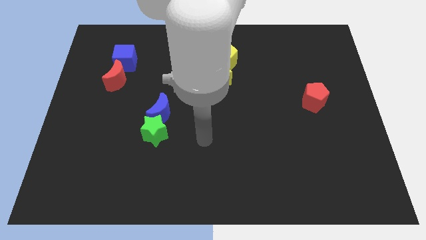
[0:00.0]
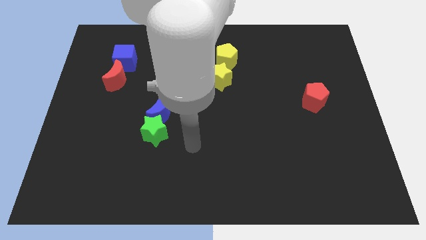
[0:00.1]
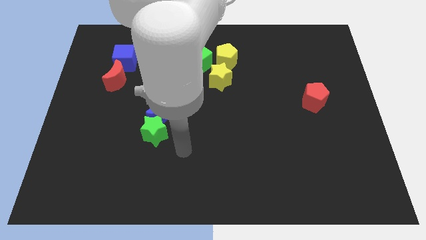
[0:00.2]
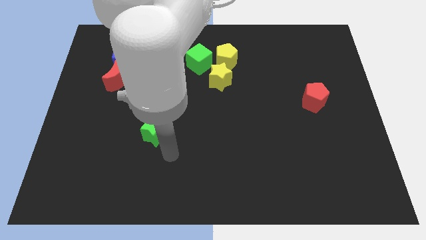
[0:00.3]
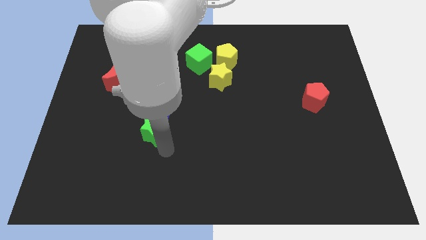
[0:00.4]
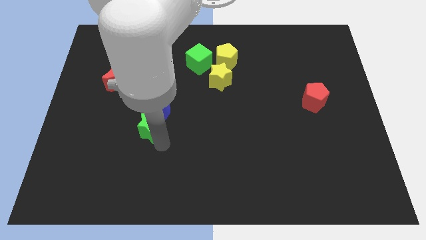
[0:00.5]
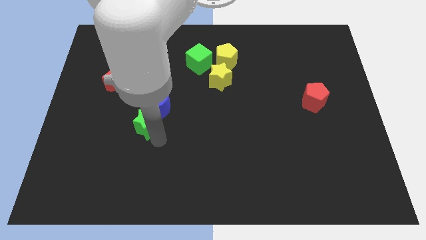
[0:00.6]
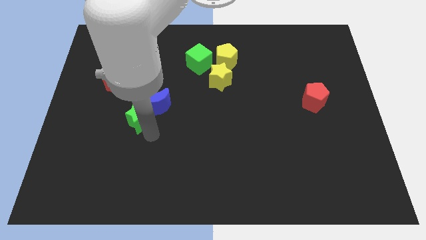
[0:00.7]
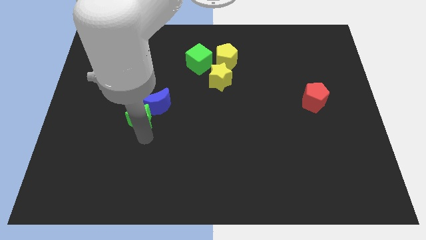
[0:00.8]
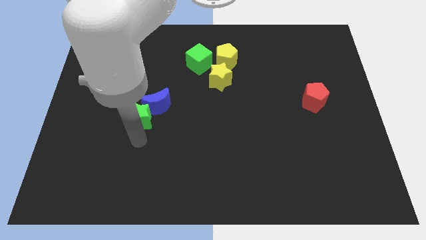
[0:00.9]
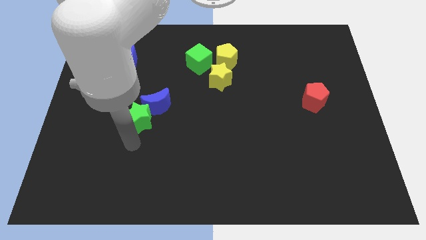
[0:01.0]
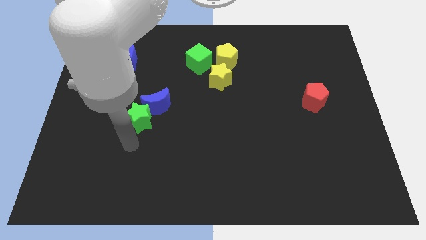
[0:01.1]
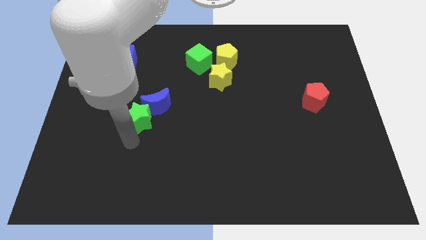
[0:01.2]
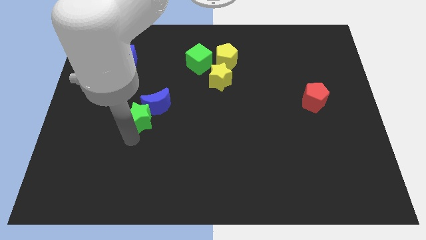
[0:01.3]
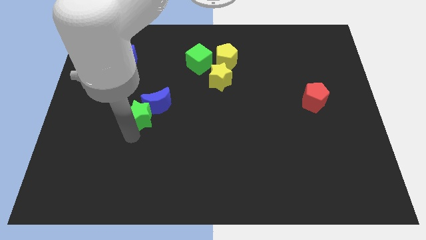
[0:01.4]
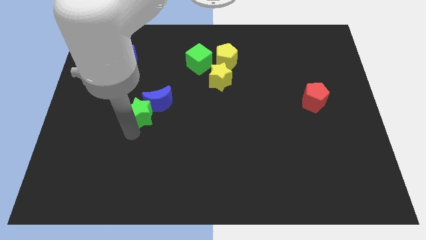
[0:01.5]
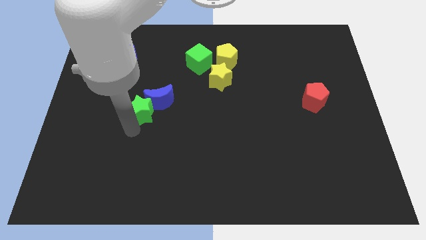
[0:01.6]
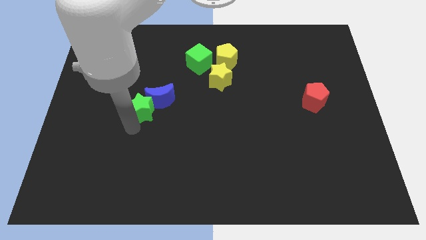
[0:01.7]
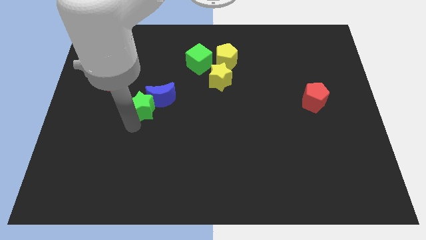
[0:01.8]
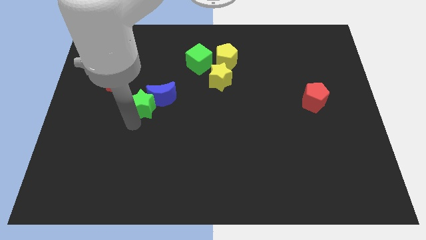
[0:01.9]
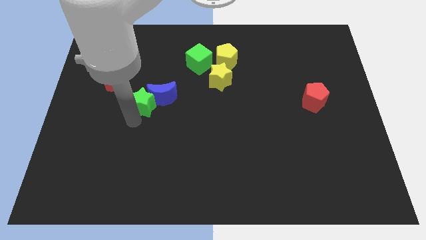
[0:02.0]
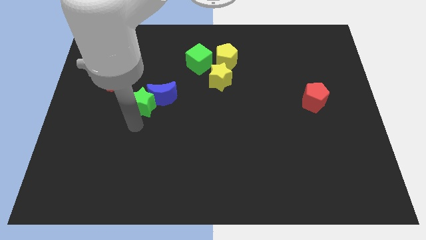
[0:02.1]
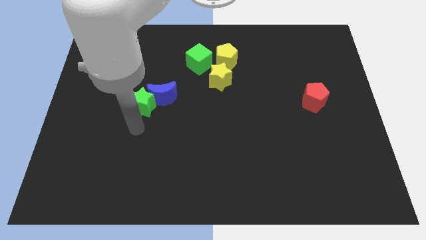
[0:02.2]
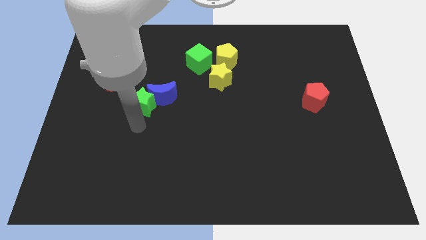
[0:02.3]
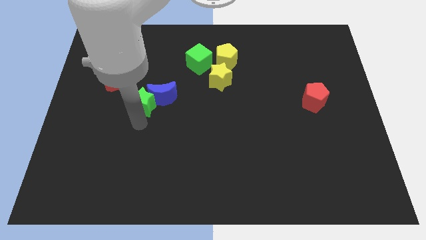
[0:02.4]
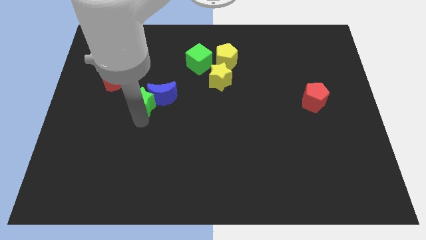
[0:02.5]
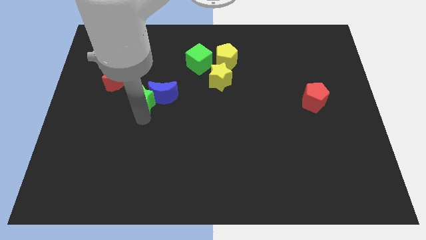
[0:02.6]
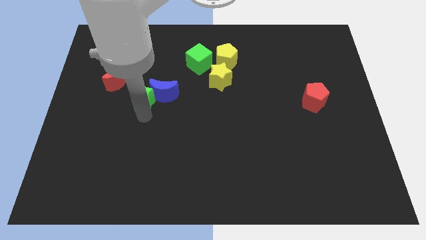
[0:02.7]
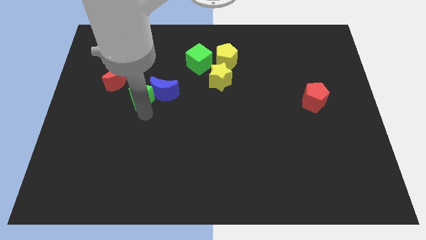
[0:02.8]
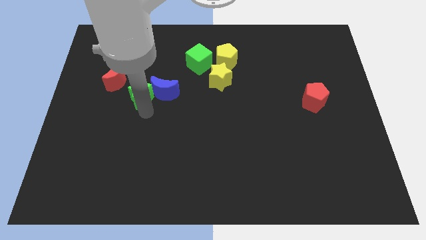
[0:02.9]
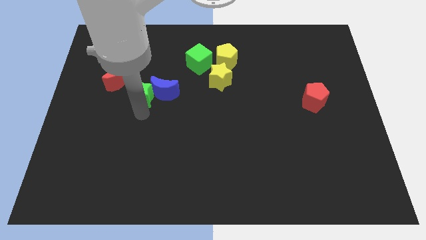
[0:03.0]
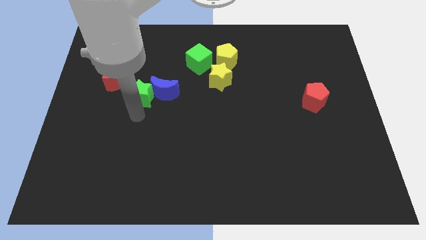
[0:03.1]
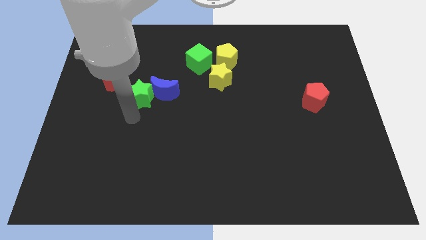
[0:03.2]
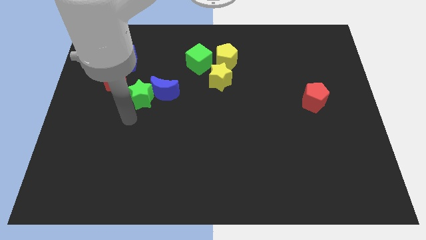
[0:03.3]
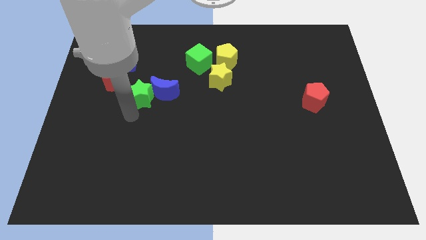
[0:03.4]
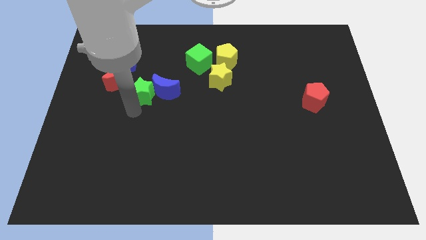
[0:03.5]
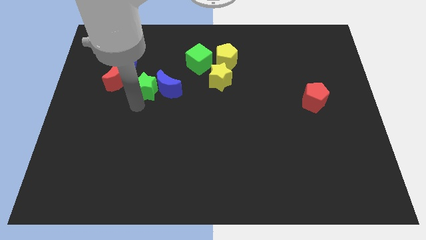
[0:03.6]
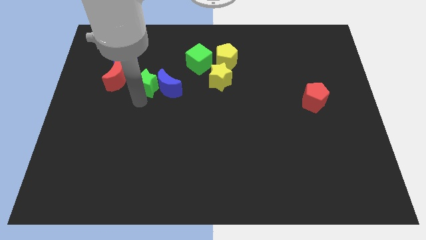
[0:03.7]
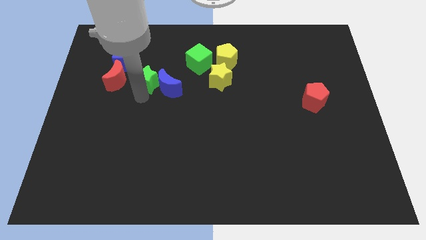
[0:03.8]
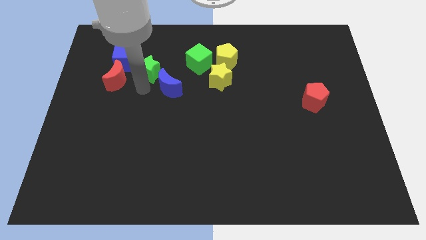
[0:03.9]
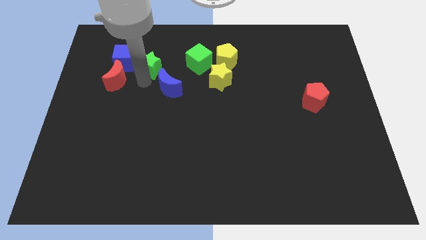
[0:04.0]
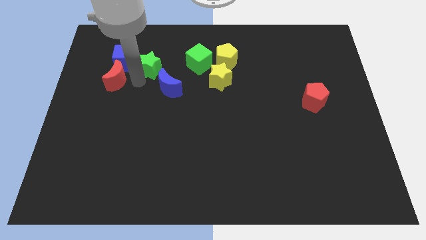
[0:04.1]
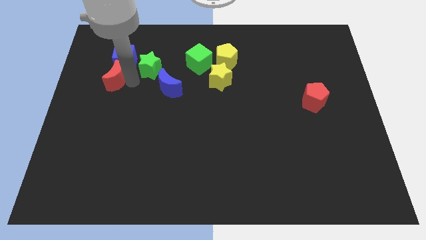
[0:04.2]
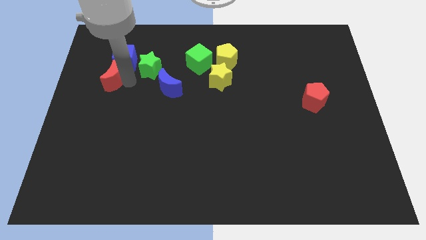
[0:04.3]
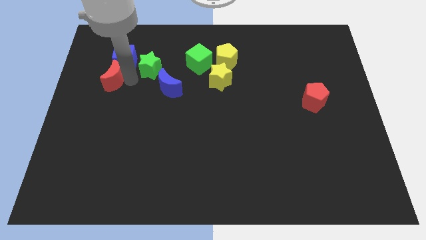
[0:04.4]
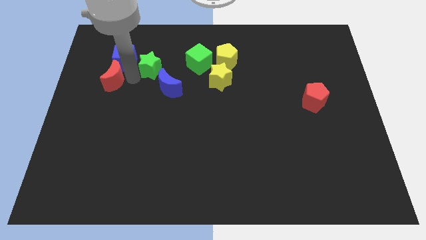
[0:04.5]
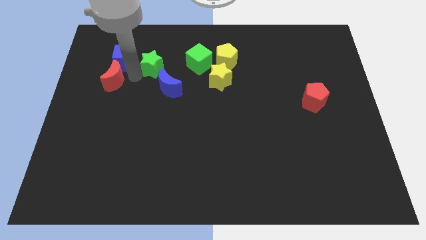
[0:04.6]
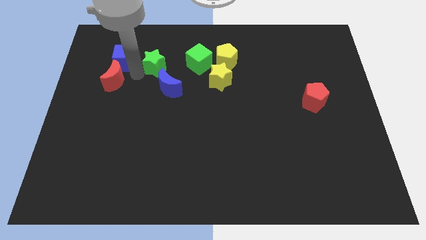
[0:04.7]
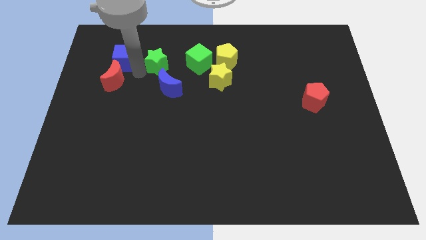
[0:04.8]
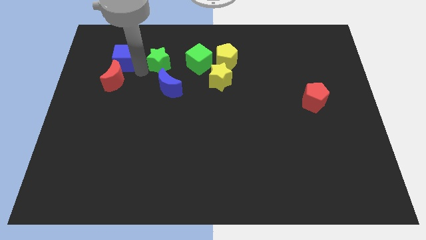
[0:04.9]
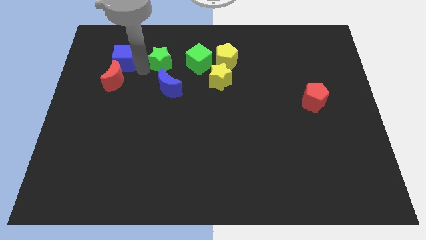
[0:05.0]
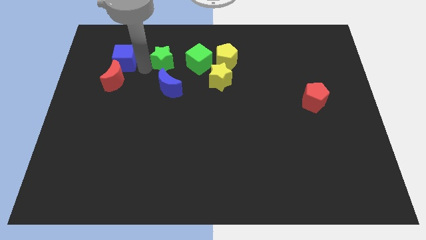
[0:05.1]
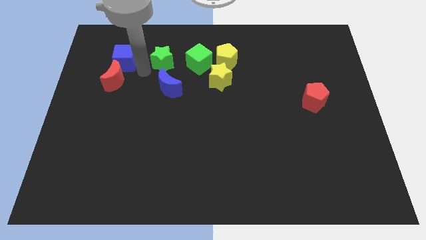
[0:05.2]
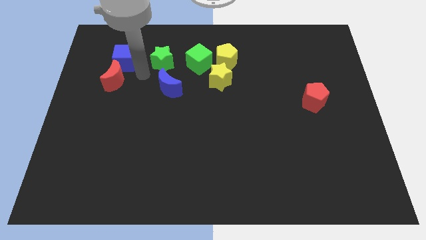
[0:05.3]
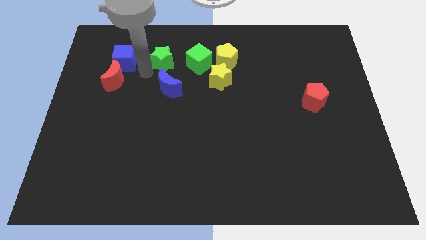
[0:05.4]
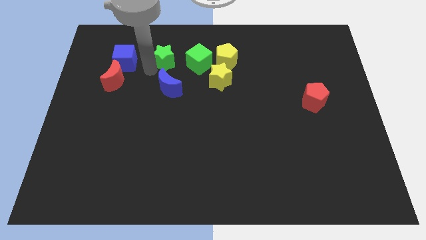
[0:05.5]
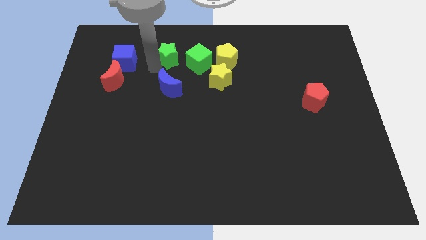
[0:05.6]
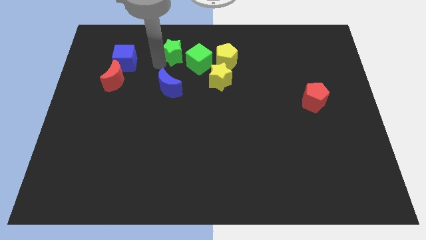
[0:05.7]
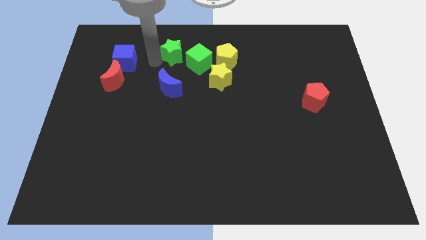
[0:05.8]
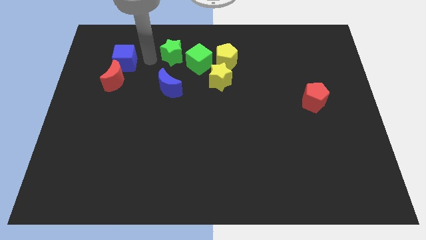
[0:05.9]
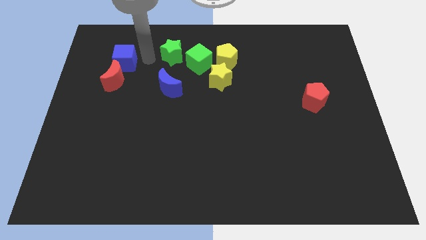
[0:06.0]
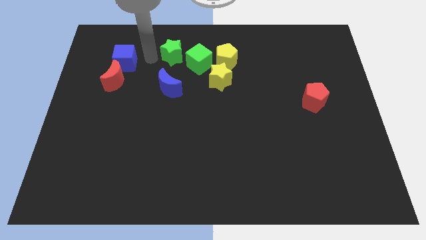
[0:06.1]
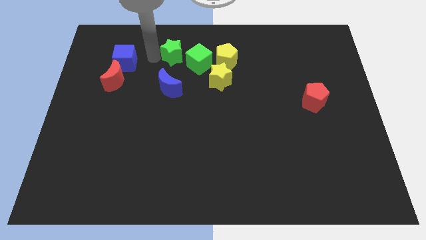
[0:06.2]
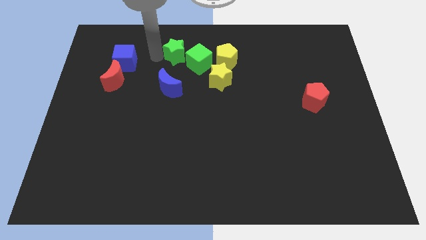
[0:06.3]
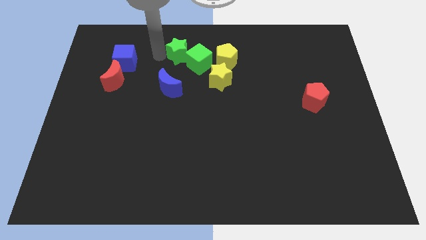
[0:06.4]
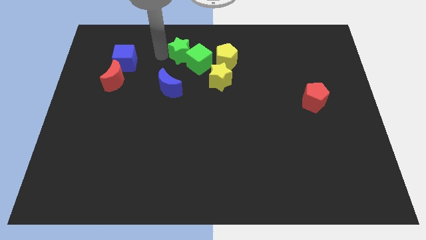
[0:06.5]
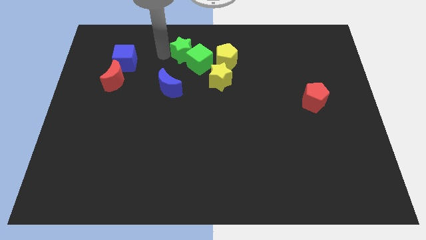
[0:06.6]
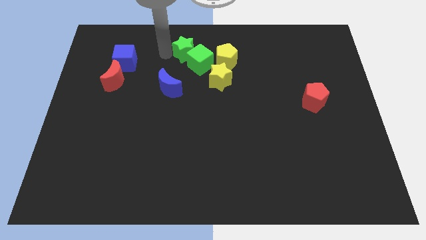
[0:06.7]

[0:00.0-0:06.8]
slide the green star to the top side
